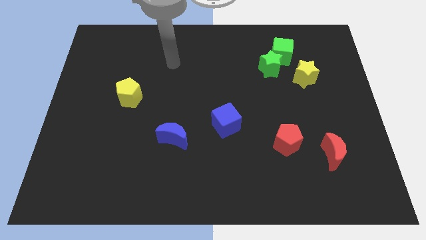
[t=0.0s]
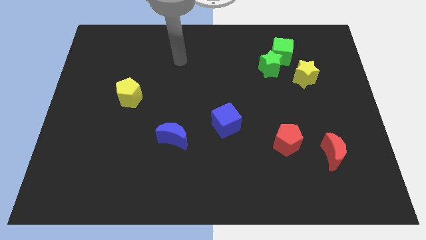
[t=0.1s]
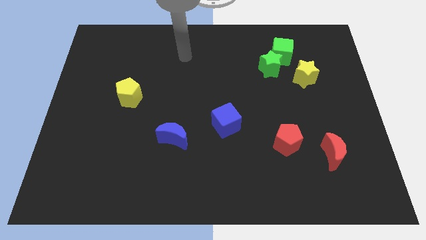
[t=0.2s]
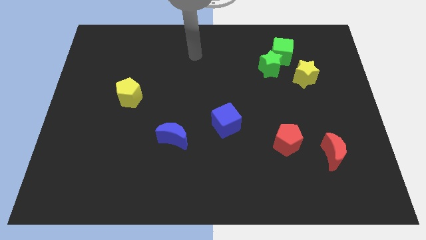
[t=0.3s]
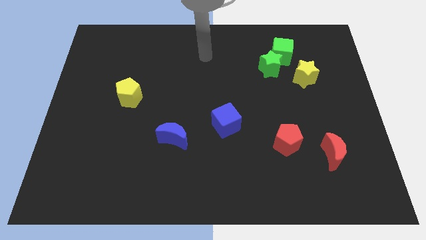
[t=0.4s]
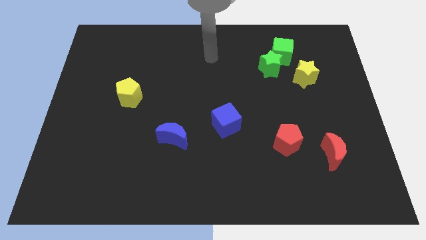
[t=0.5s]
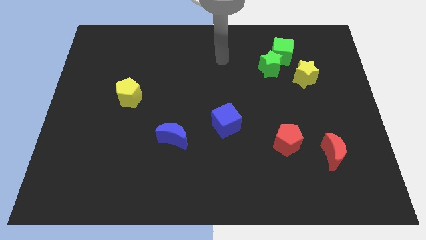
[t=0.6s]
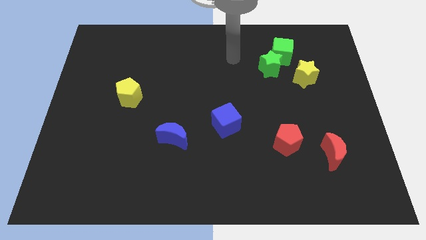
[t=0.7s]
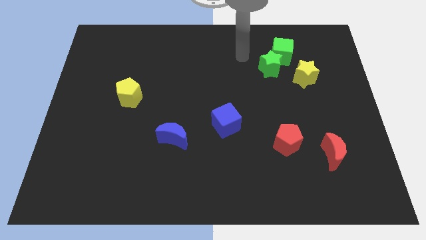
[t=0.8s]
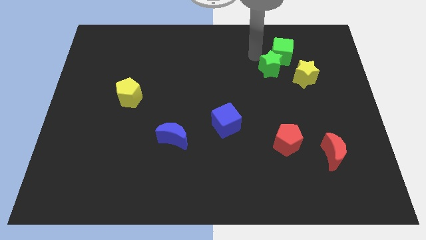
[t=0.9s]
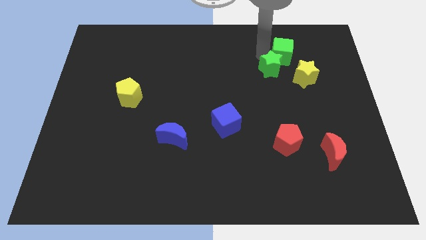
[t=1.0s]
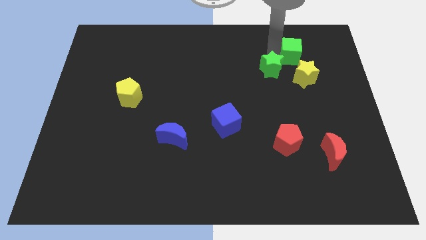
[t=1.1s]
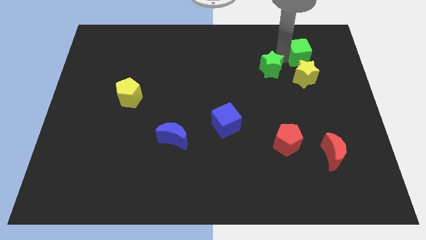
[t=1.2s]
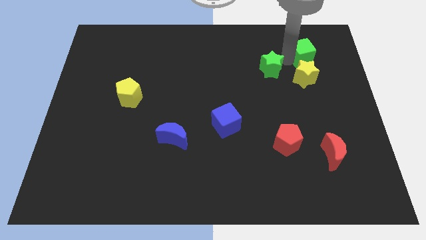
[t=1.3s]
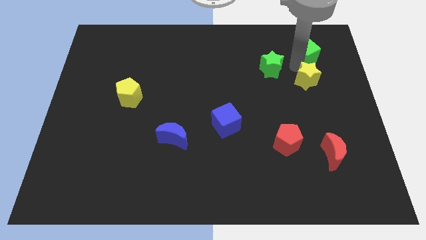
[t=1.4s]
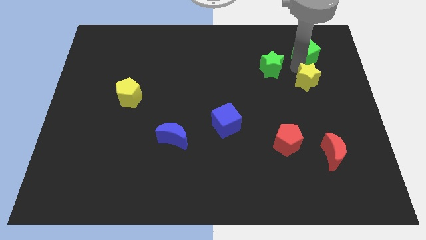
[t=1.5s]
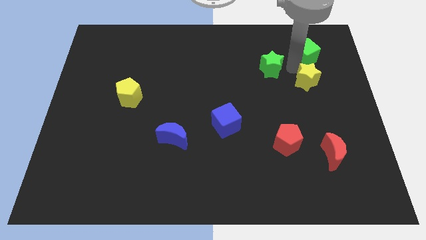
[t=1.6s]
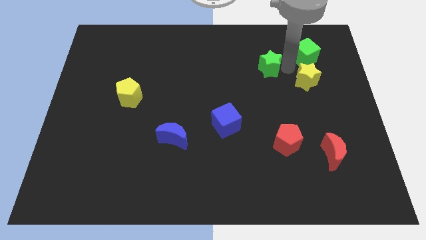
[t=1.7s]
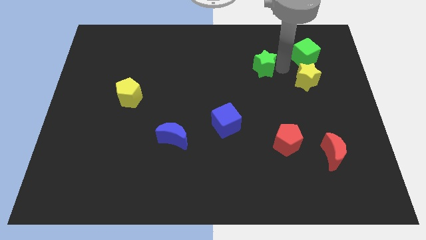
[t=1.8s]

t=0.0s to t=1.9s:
pull the green star apart from the green cube and yellow star

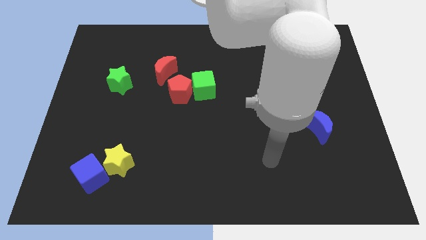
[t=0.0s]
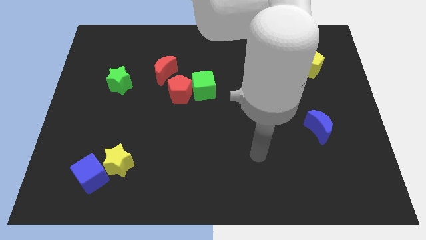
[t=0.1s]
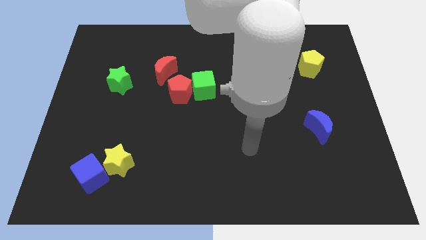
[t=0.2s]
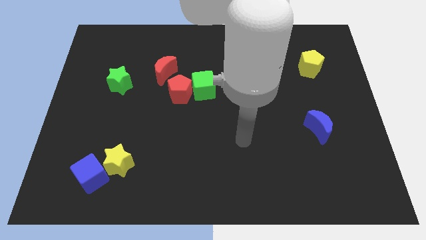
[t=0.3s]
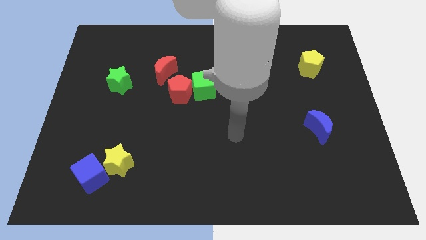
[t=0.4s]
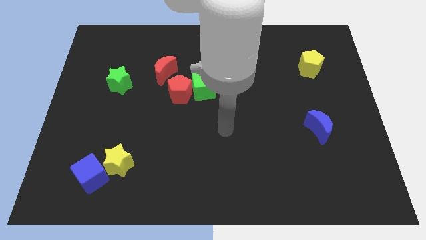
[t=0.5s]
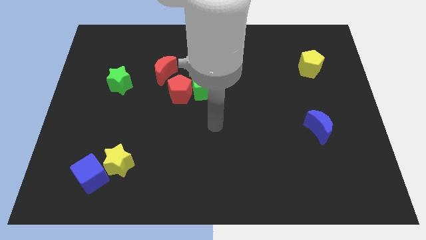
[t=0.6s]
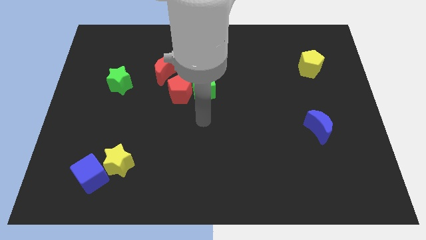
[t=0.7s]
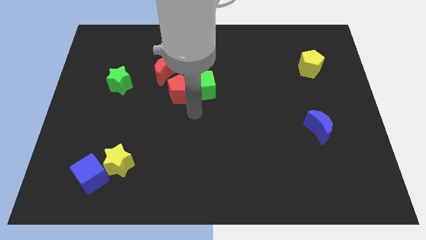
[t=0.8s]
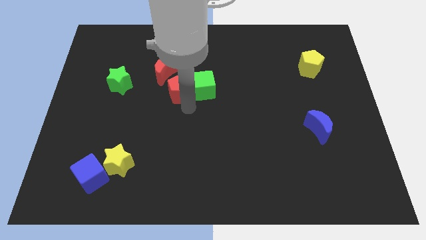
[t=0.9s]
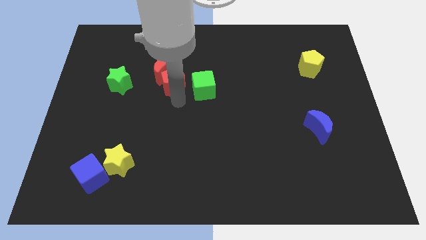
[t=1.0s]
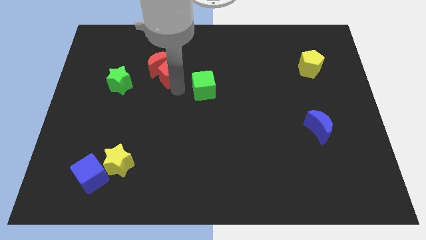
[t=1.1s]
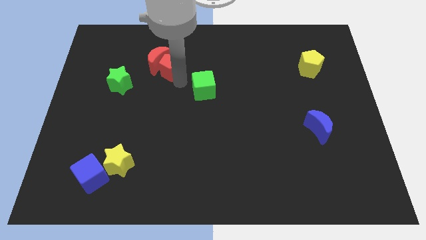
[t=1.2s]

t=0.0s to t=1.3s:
pull the green cube apart from the red pentagon

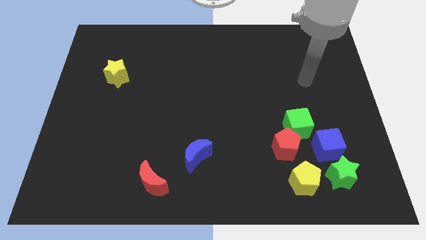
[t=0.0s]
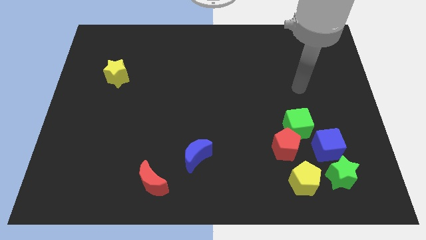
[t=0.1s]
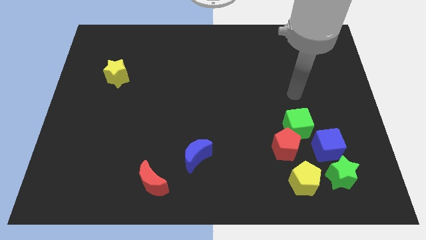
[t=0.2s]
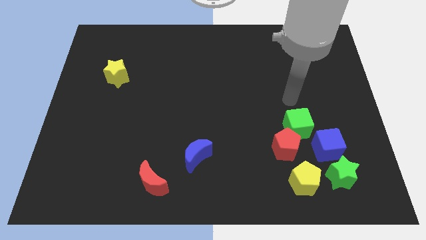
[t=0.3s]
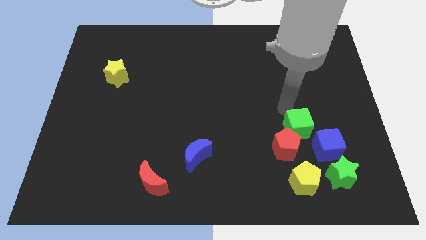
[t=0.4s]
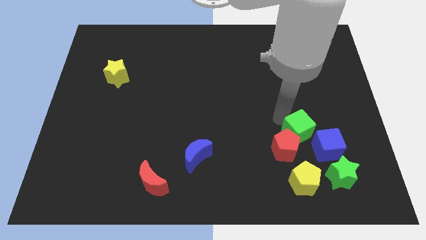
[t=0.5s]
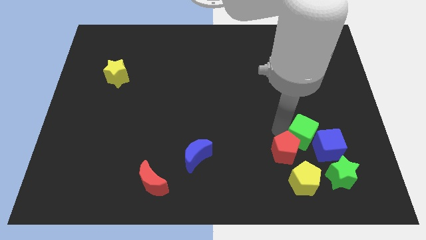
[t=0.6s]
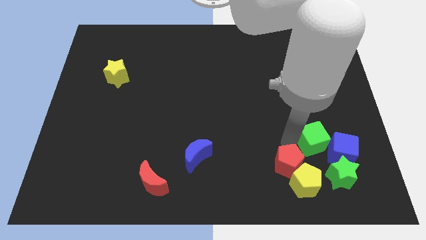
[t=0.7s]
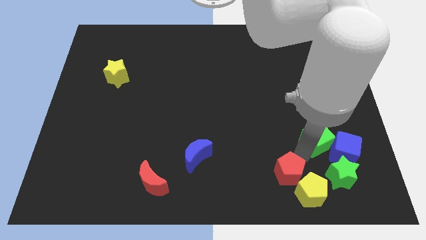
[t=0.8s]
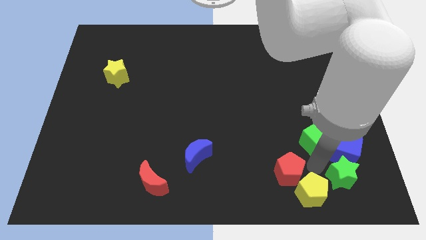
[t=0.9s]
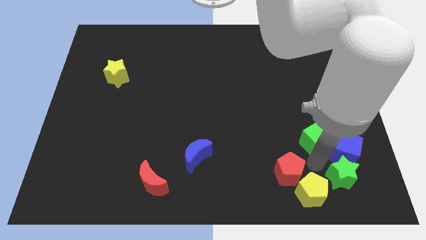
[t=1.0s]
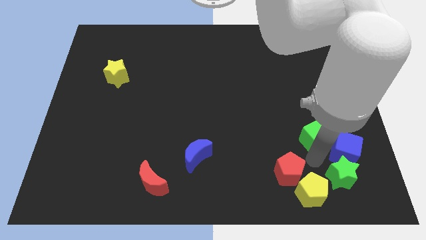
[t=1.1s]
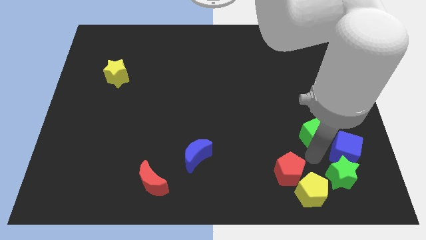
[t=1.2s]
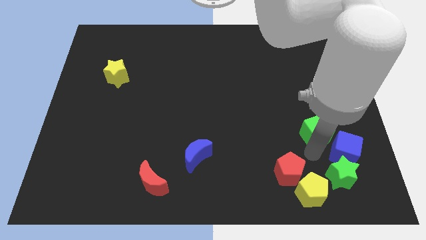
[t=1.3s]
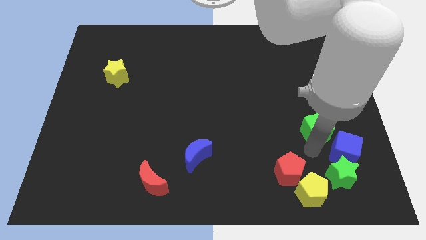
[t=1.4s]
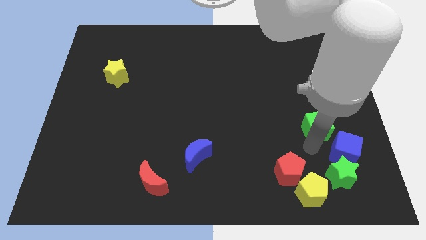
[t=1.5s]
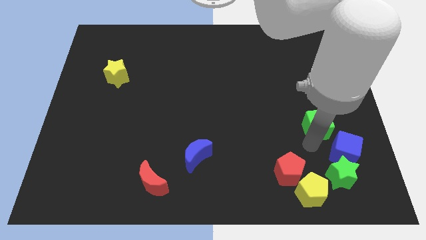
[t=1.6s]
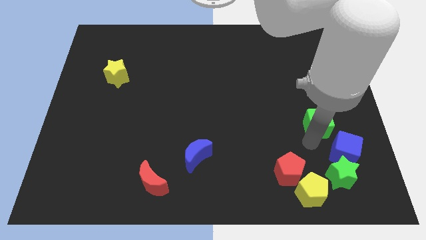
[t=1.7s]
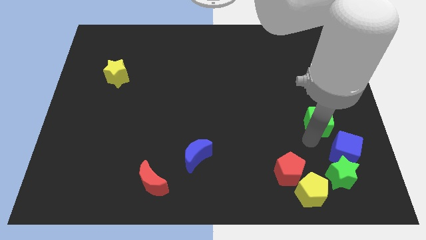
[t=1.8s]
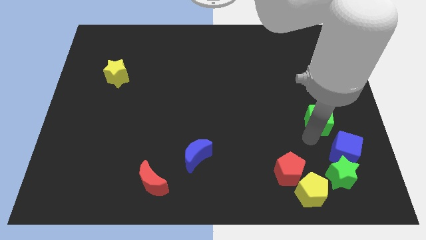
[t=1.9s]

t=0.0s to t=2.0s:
separate the green cube from the red pentagon and blue cube

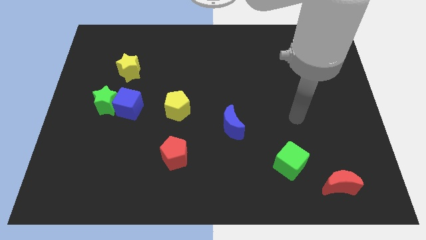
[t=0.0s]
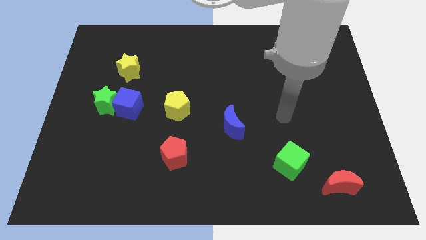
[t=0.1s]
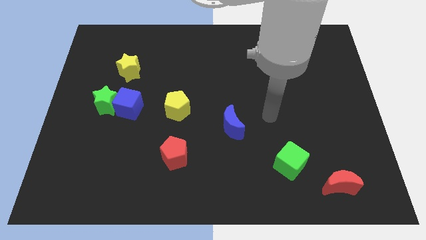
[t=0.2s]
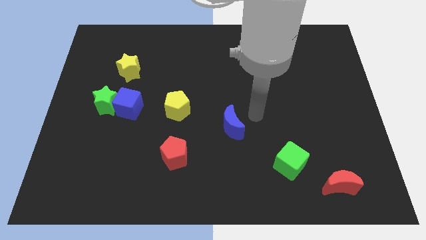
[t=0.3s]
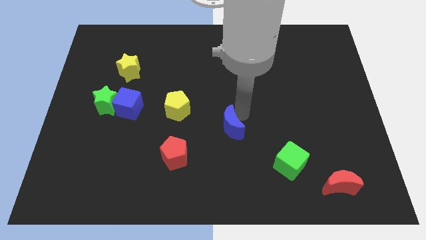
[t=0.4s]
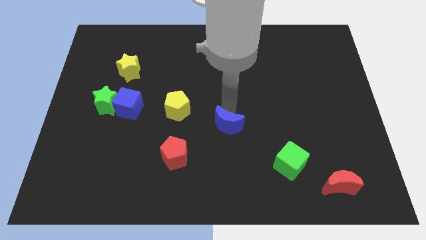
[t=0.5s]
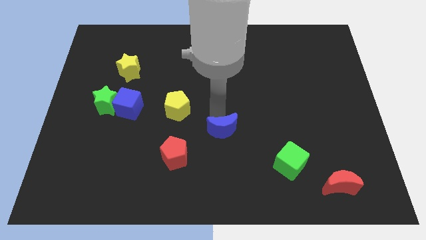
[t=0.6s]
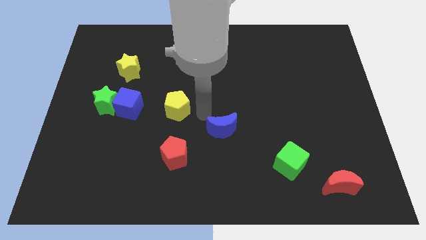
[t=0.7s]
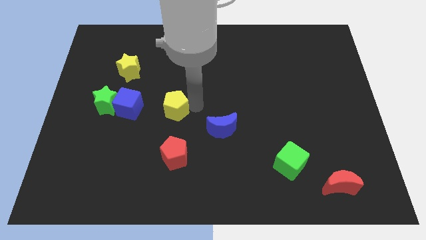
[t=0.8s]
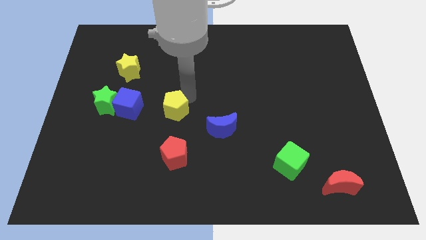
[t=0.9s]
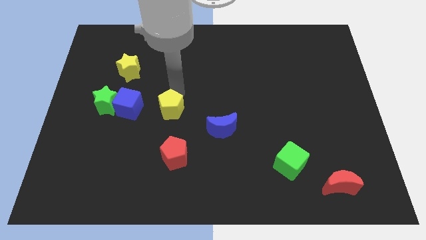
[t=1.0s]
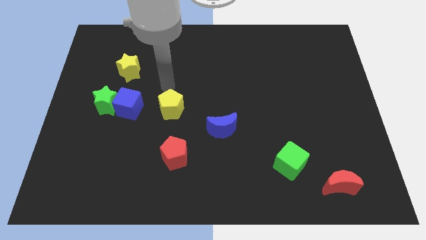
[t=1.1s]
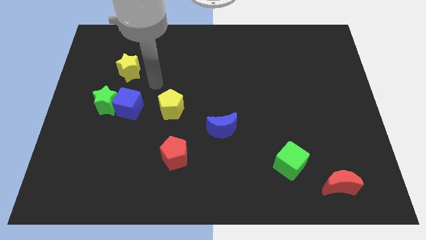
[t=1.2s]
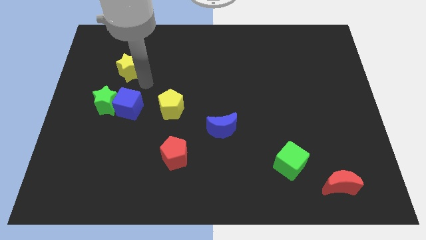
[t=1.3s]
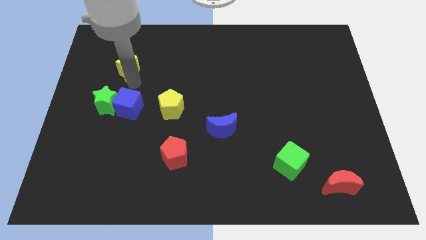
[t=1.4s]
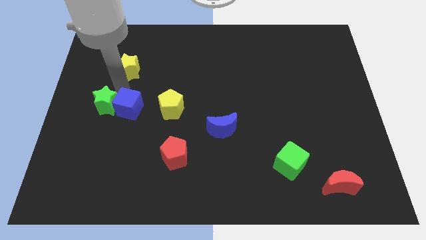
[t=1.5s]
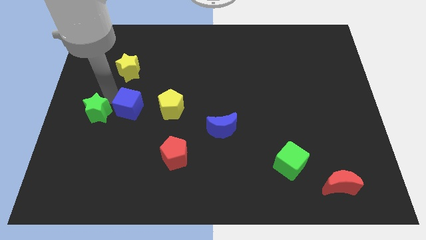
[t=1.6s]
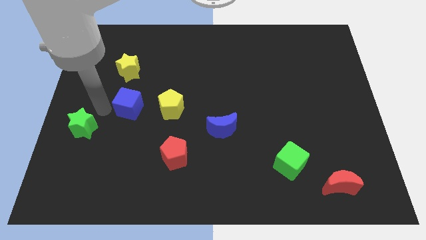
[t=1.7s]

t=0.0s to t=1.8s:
separate the blue cube from the green star

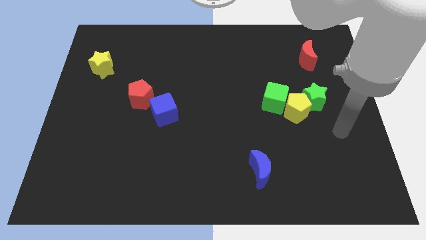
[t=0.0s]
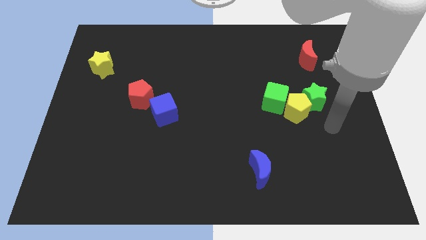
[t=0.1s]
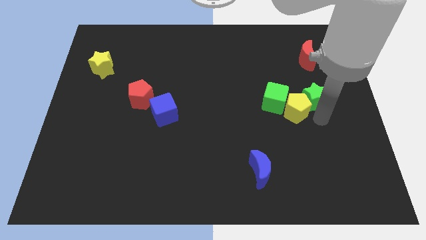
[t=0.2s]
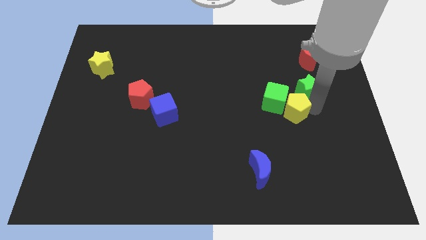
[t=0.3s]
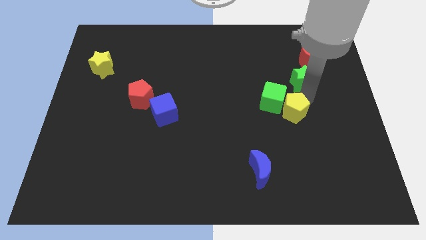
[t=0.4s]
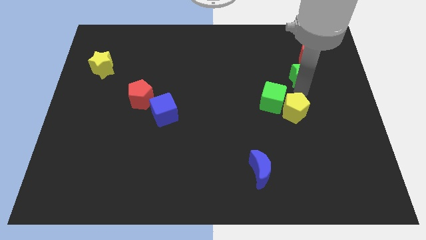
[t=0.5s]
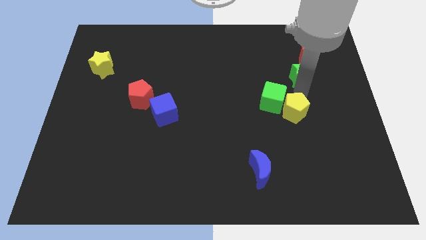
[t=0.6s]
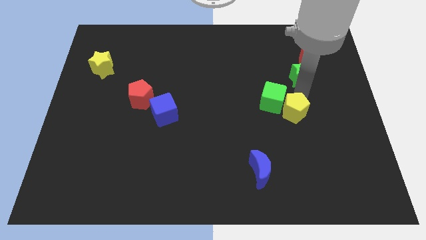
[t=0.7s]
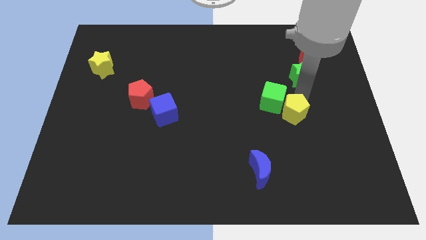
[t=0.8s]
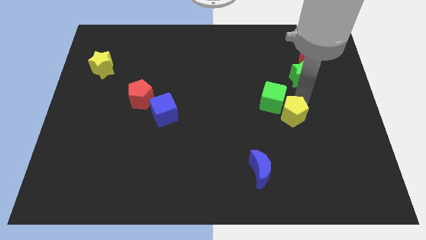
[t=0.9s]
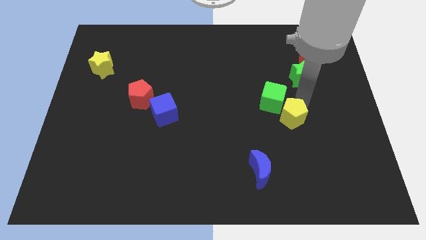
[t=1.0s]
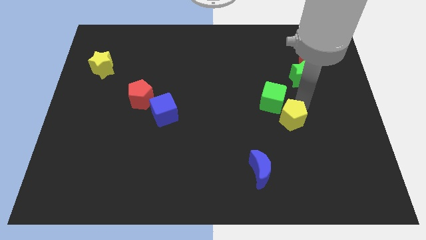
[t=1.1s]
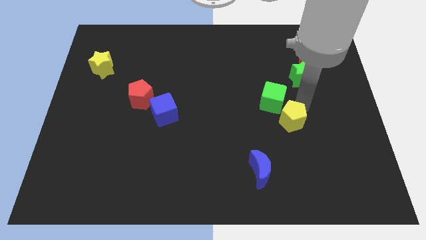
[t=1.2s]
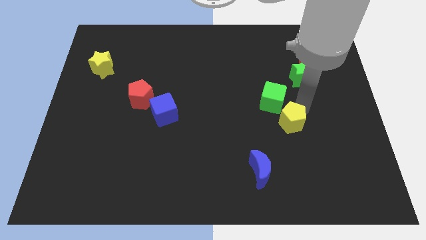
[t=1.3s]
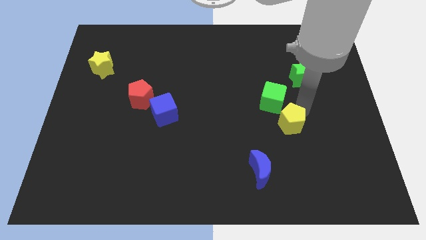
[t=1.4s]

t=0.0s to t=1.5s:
pull the yellow pentagon apart from the green star and green cube

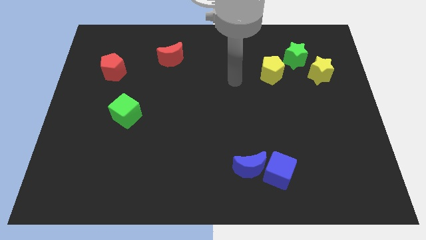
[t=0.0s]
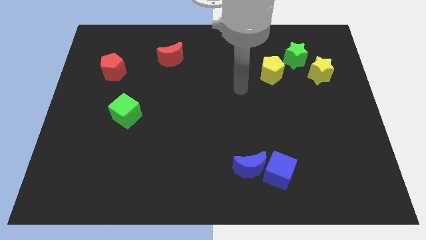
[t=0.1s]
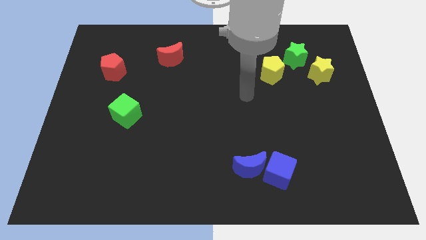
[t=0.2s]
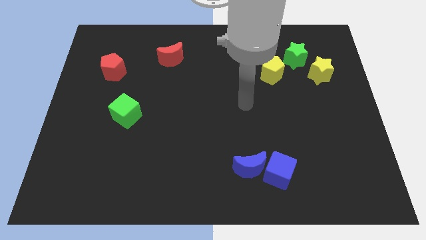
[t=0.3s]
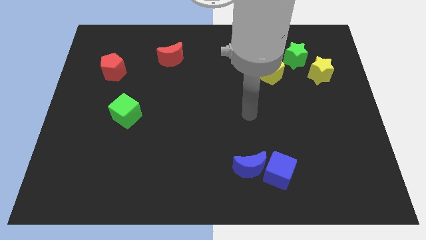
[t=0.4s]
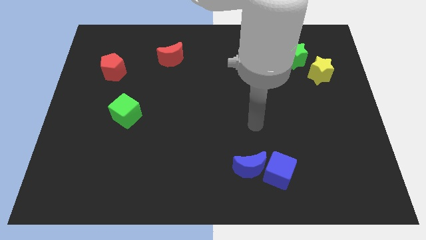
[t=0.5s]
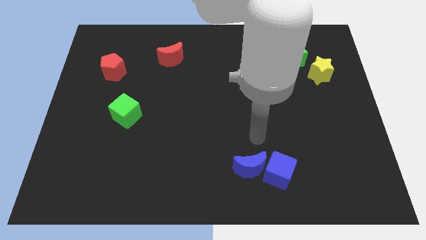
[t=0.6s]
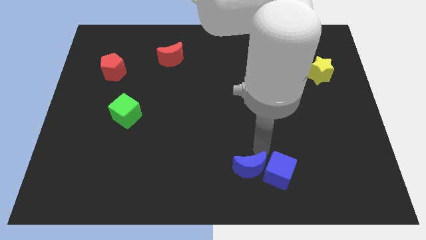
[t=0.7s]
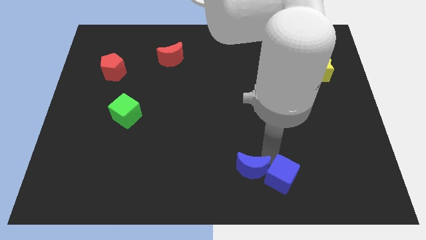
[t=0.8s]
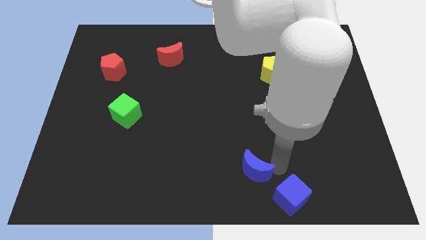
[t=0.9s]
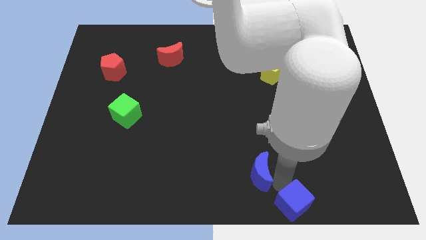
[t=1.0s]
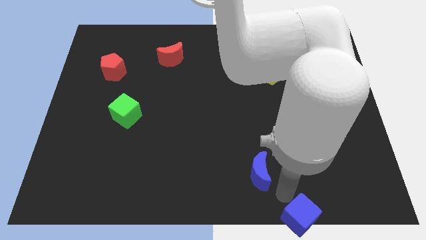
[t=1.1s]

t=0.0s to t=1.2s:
pull the blue moon apart from the blue cube
